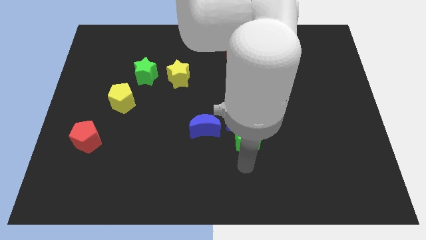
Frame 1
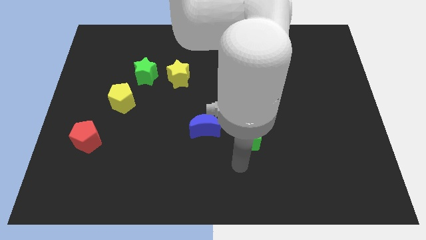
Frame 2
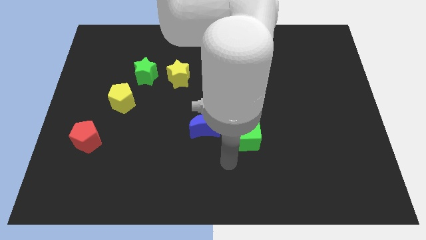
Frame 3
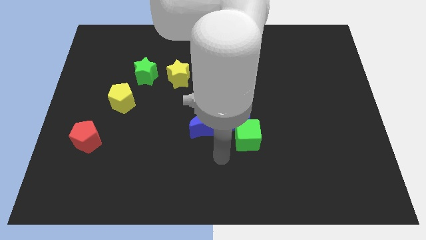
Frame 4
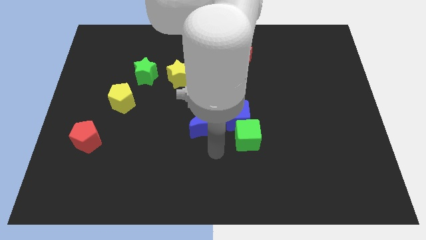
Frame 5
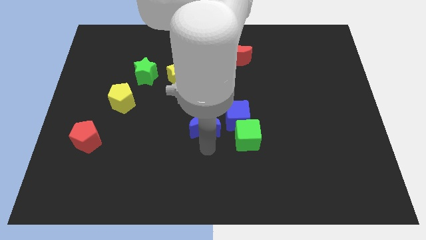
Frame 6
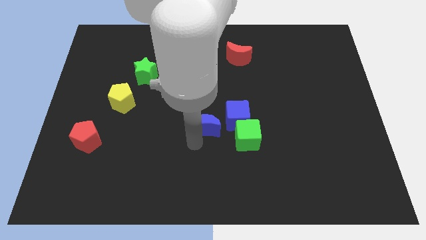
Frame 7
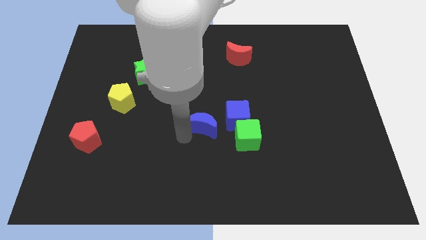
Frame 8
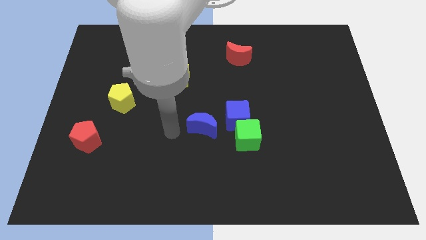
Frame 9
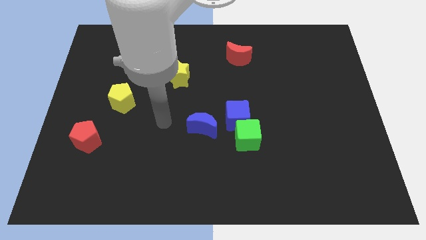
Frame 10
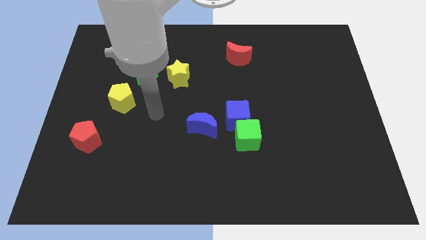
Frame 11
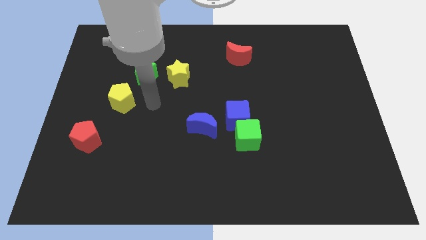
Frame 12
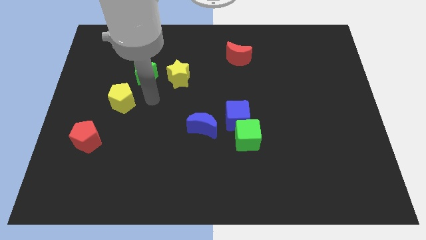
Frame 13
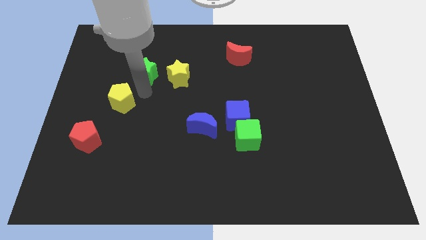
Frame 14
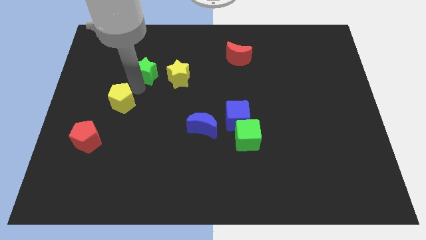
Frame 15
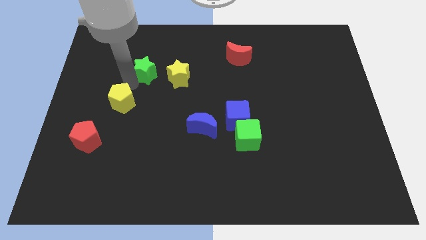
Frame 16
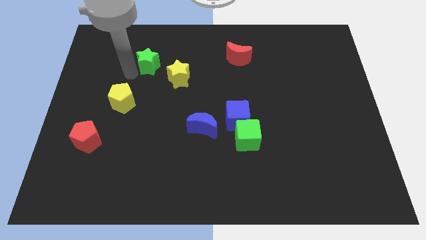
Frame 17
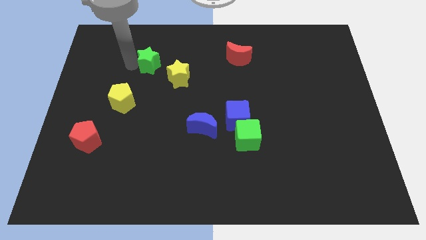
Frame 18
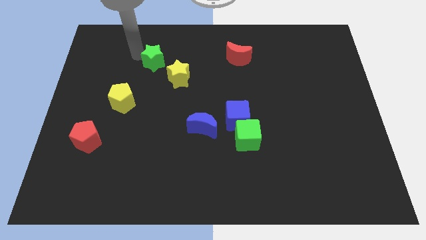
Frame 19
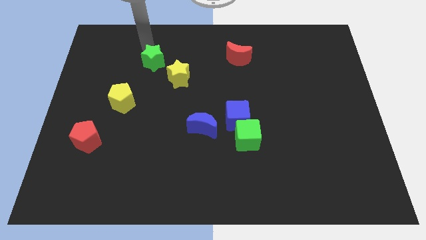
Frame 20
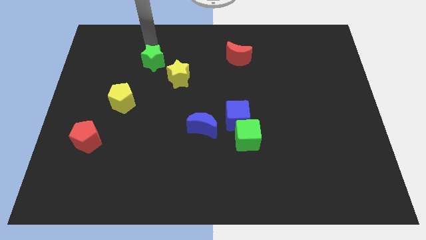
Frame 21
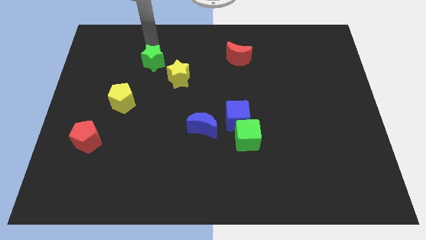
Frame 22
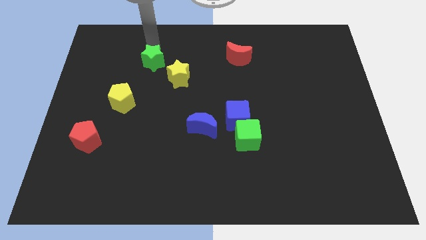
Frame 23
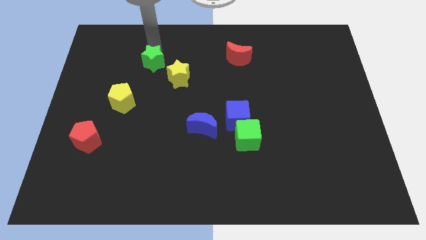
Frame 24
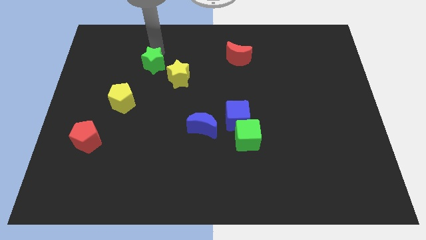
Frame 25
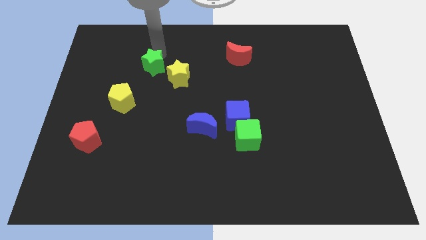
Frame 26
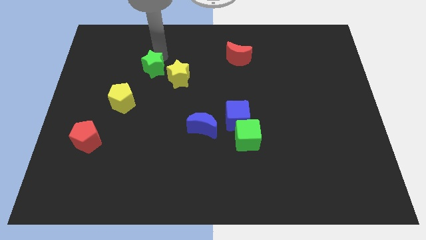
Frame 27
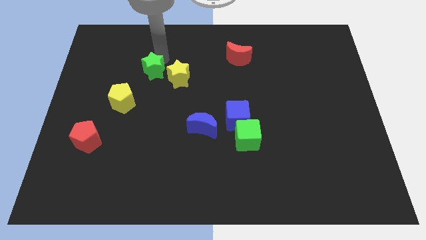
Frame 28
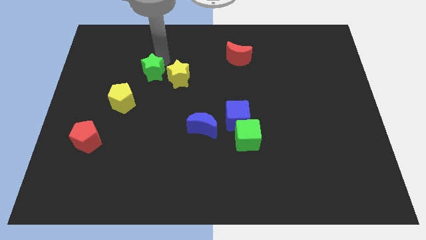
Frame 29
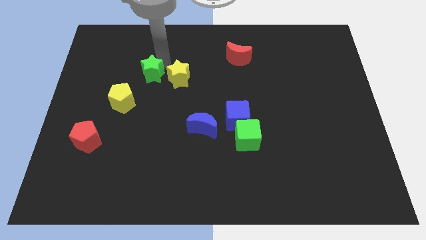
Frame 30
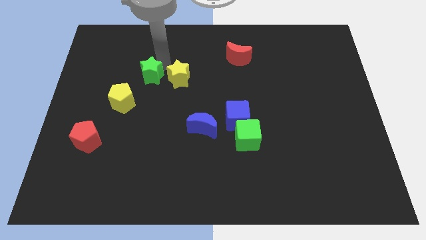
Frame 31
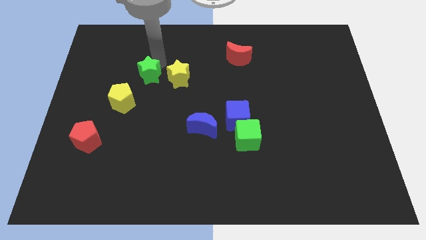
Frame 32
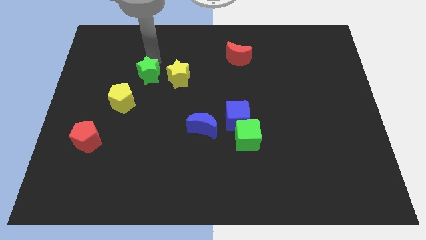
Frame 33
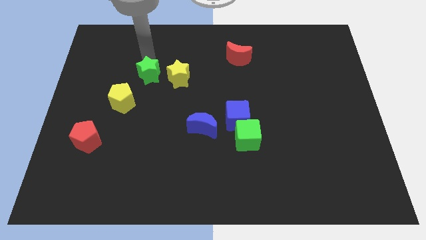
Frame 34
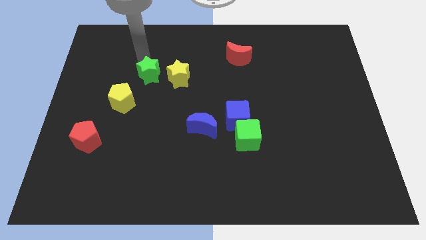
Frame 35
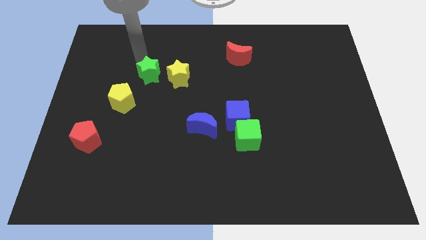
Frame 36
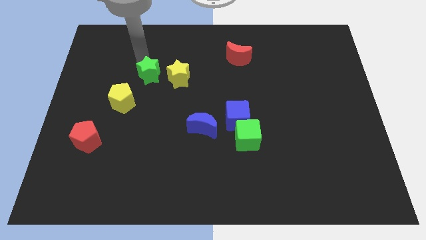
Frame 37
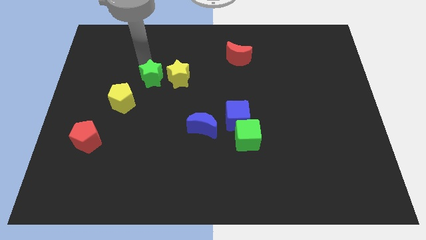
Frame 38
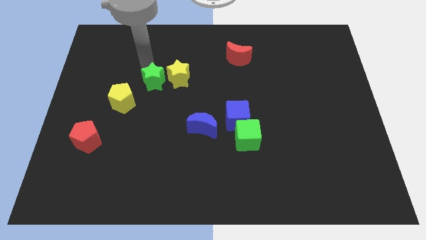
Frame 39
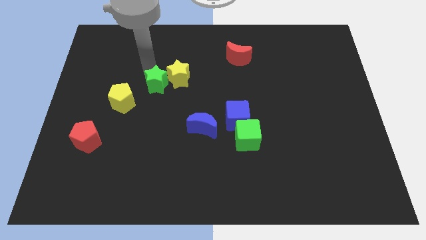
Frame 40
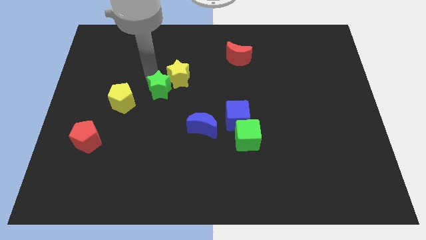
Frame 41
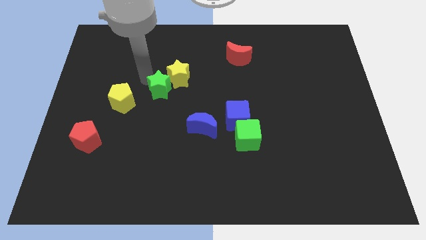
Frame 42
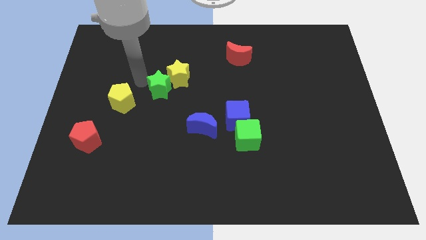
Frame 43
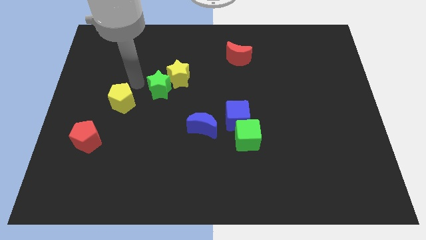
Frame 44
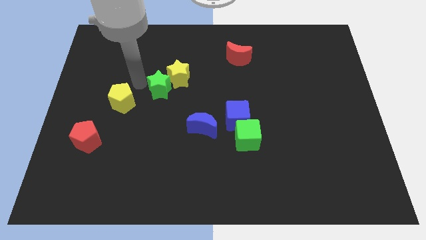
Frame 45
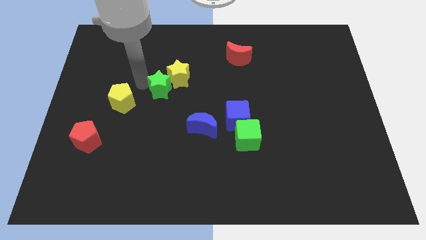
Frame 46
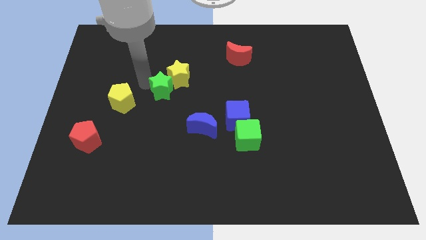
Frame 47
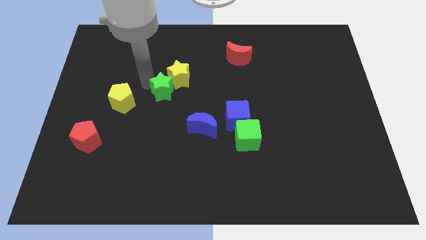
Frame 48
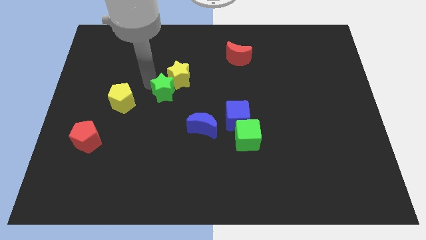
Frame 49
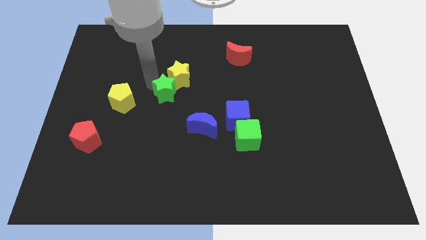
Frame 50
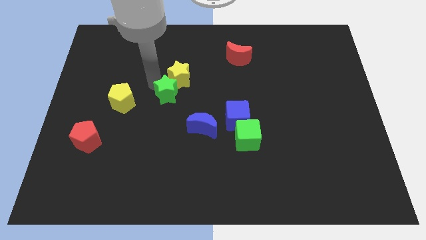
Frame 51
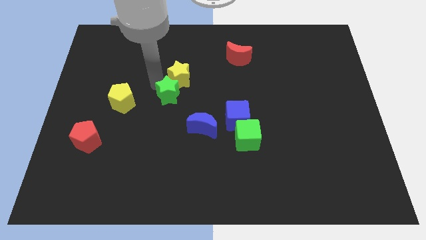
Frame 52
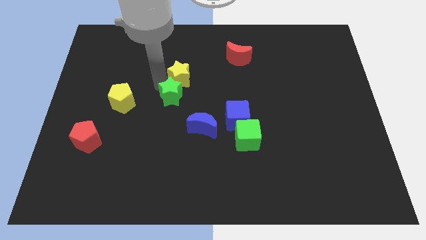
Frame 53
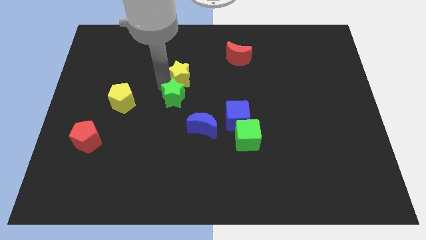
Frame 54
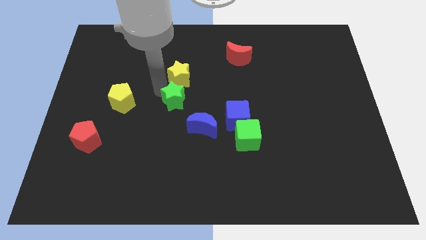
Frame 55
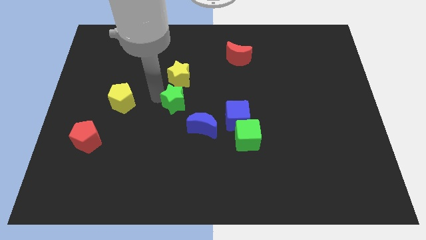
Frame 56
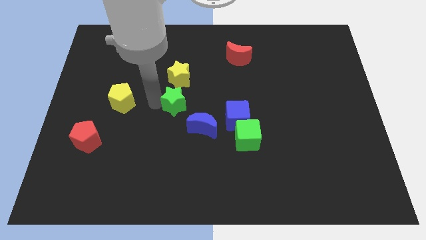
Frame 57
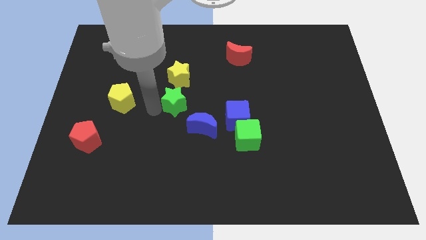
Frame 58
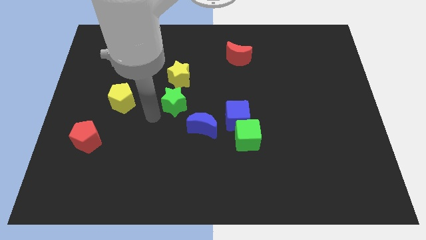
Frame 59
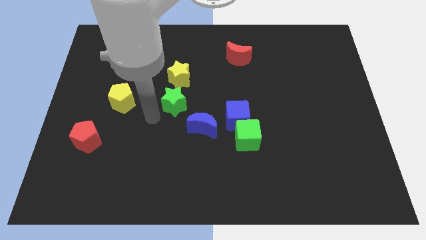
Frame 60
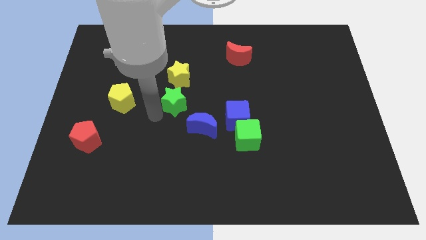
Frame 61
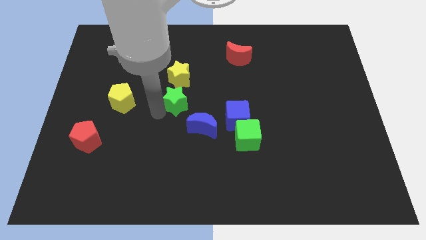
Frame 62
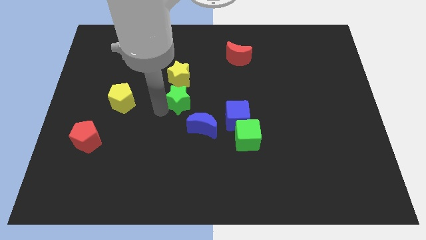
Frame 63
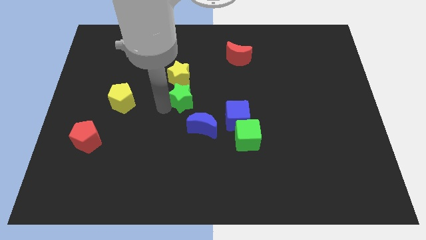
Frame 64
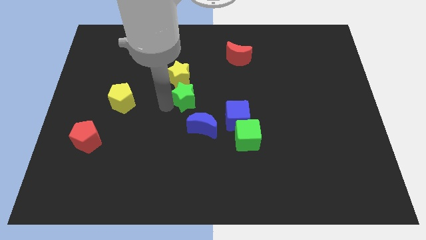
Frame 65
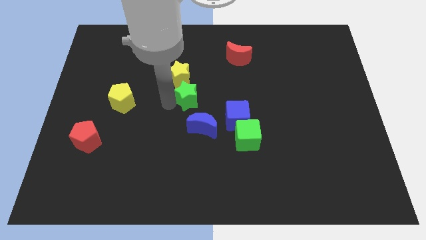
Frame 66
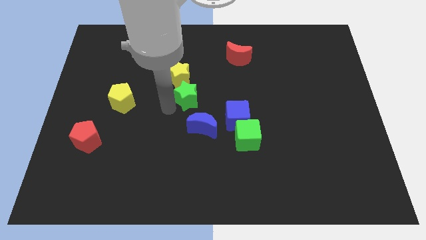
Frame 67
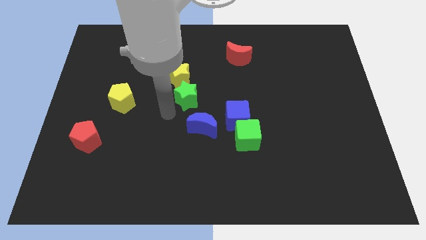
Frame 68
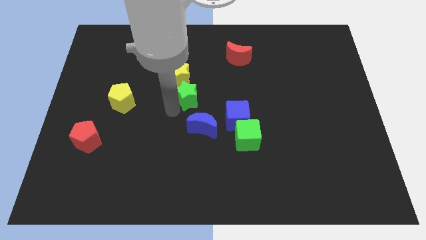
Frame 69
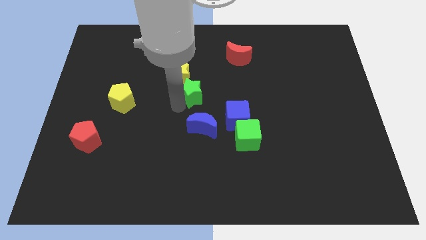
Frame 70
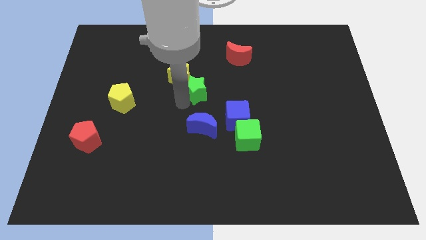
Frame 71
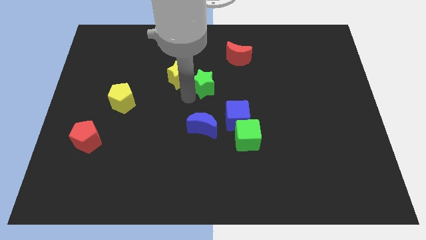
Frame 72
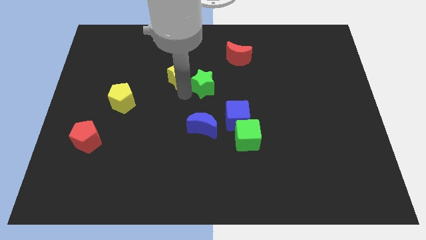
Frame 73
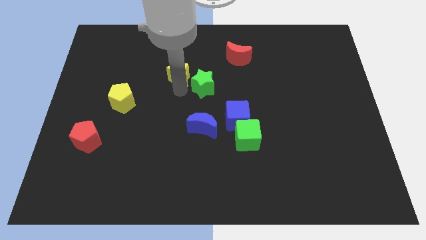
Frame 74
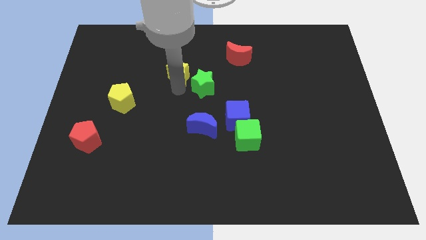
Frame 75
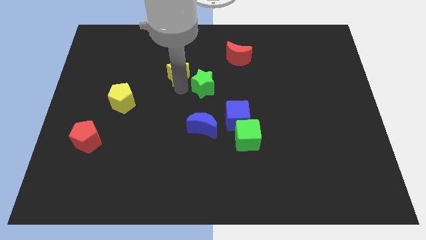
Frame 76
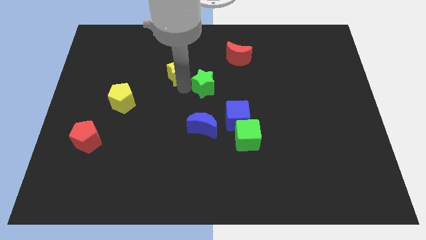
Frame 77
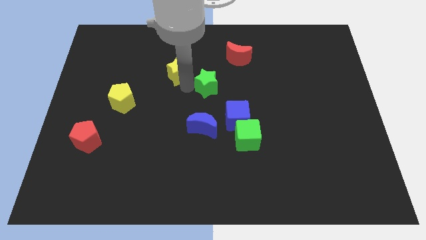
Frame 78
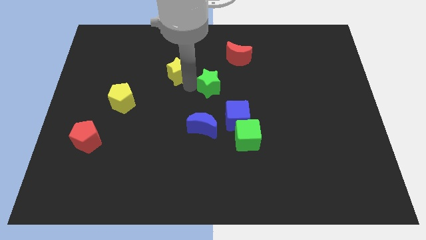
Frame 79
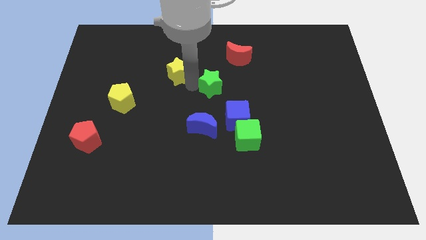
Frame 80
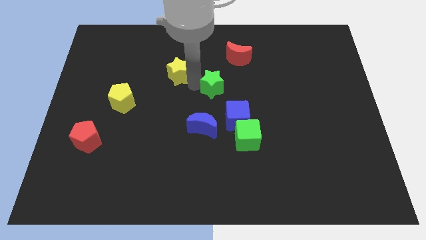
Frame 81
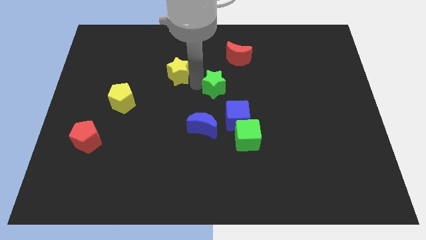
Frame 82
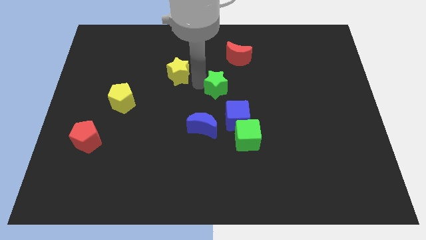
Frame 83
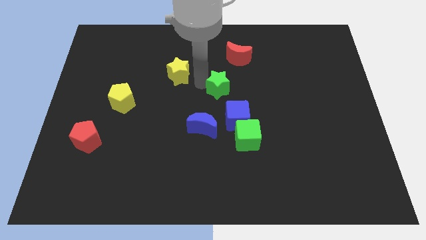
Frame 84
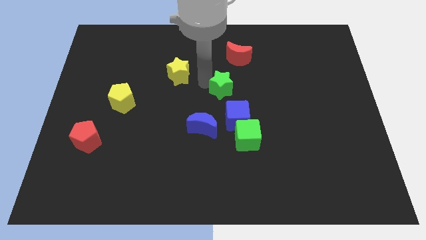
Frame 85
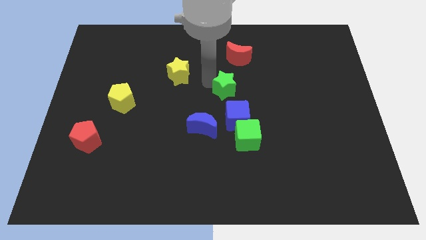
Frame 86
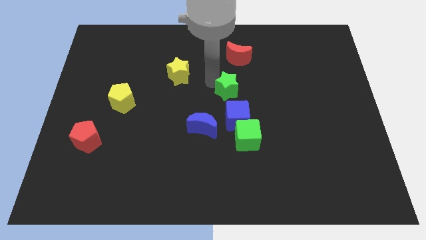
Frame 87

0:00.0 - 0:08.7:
move the green star to the right
